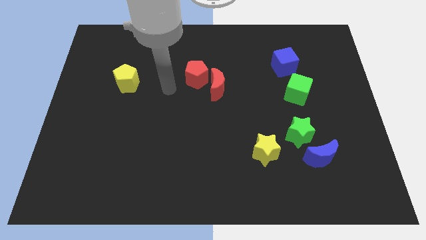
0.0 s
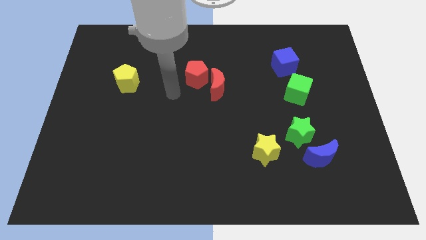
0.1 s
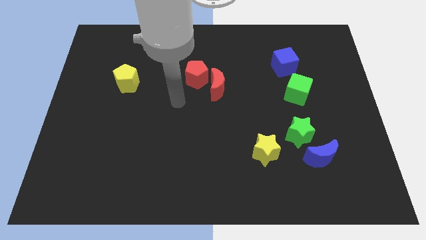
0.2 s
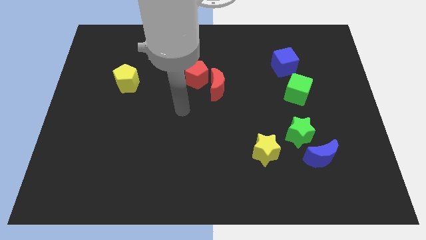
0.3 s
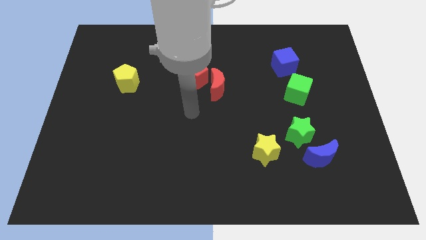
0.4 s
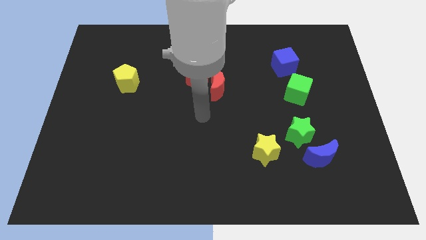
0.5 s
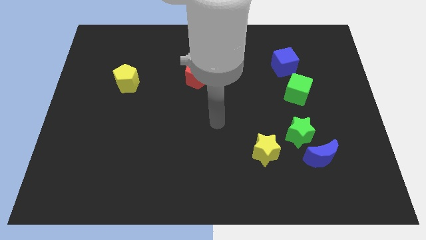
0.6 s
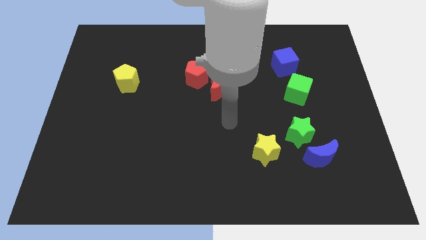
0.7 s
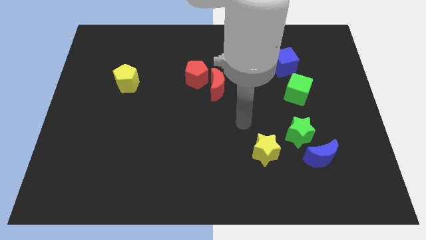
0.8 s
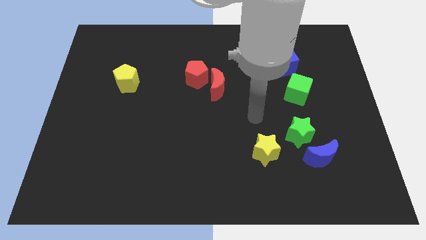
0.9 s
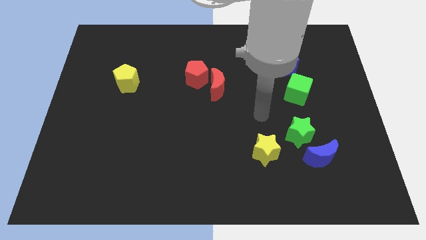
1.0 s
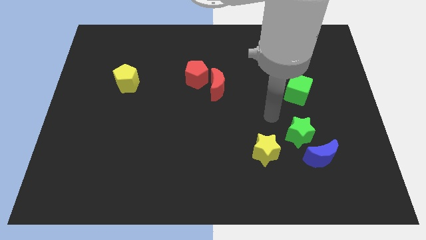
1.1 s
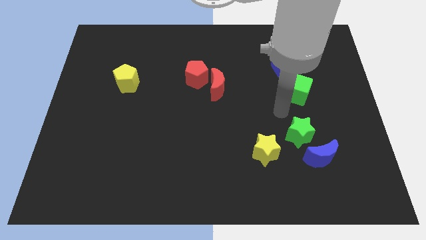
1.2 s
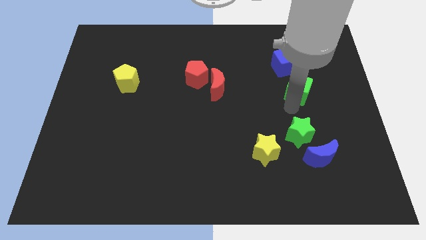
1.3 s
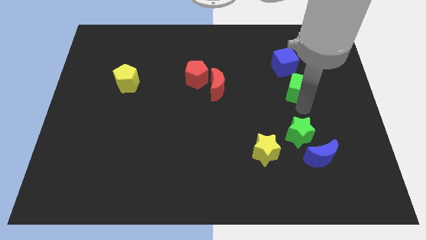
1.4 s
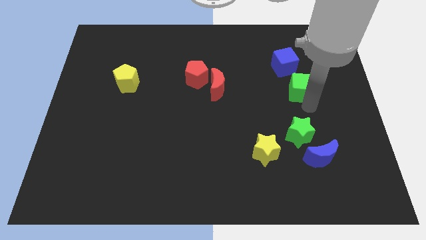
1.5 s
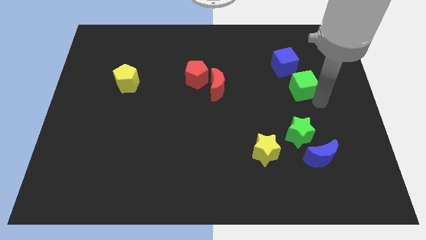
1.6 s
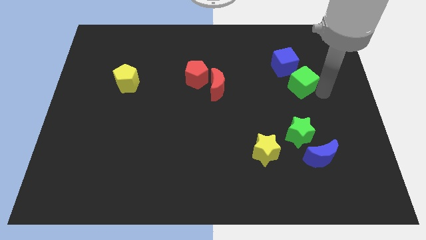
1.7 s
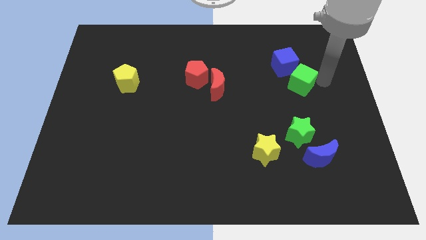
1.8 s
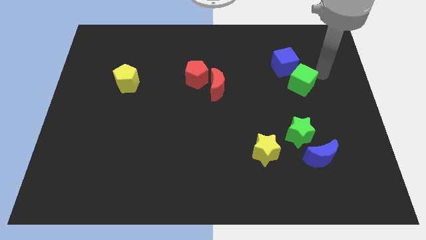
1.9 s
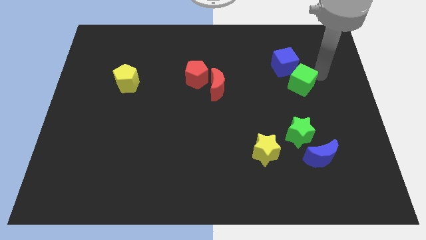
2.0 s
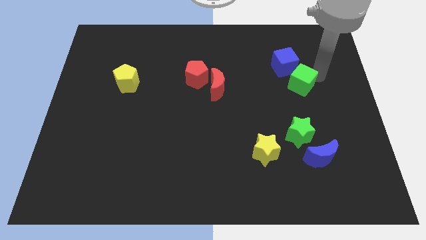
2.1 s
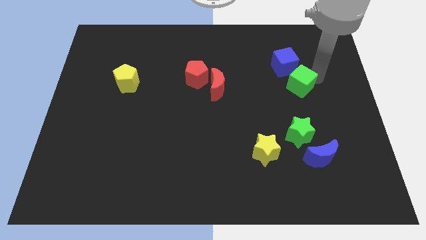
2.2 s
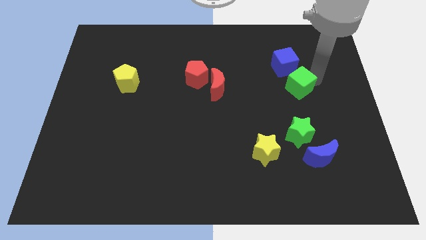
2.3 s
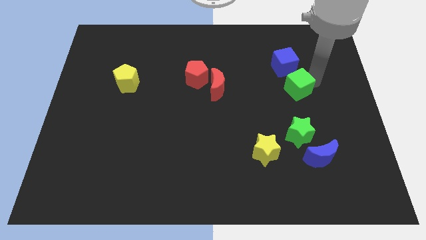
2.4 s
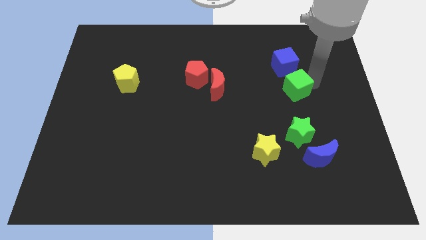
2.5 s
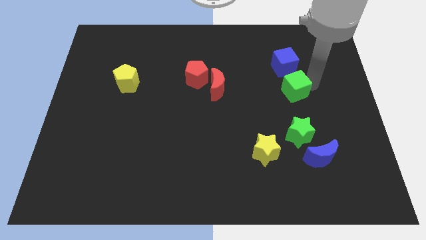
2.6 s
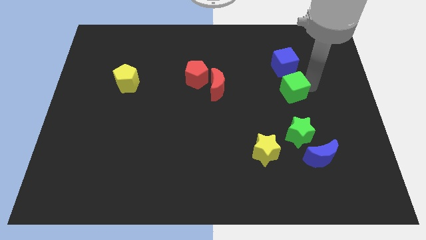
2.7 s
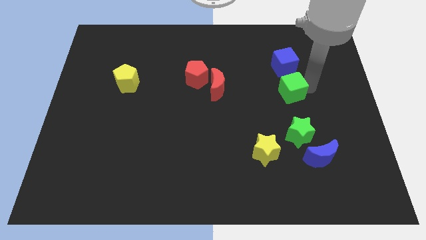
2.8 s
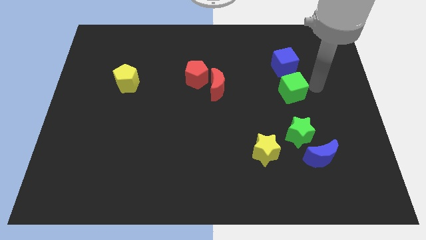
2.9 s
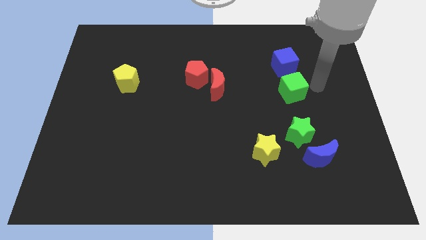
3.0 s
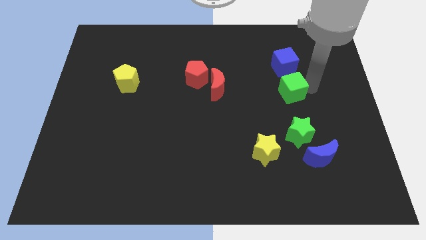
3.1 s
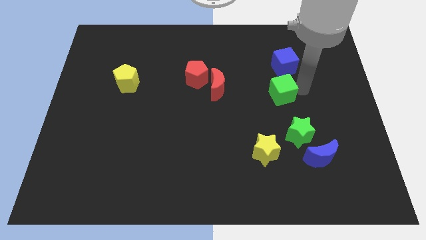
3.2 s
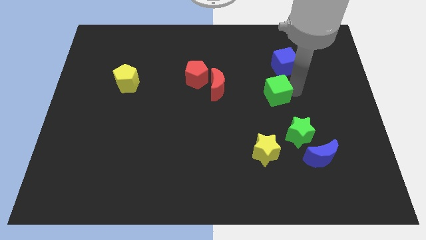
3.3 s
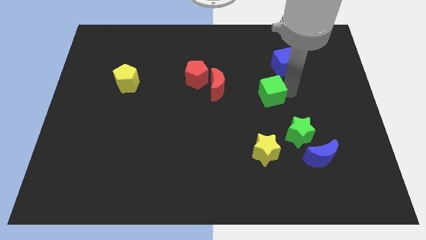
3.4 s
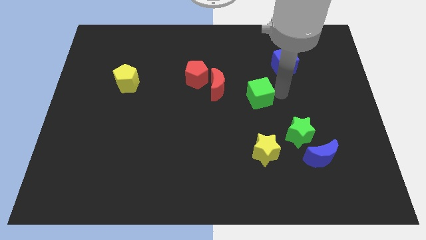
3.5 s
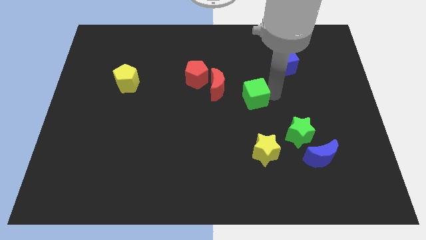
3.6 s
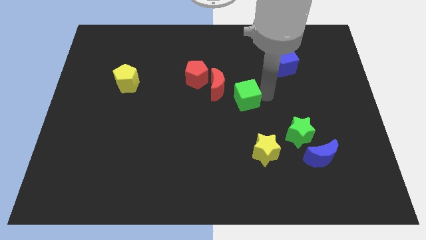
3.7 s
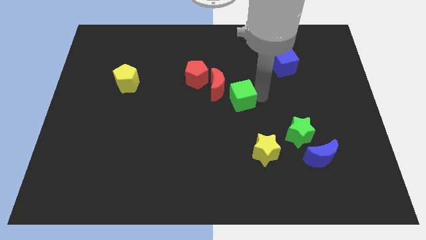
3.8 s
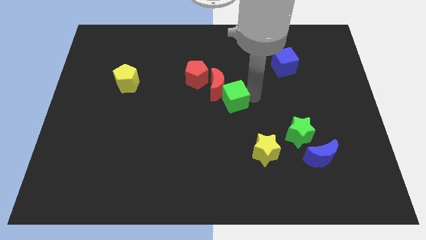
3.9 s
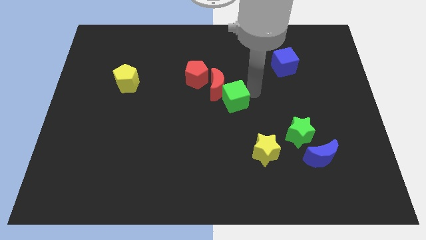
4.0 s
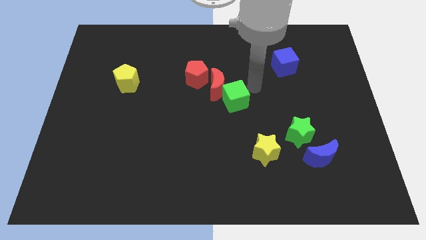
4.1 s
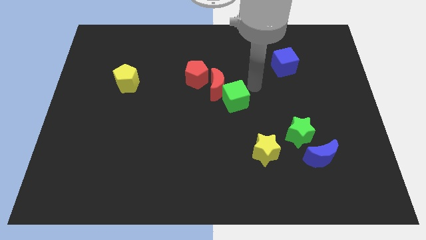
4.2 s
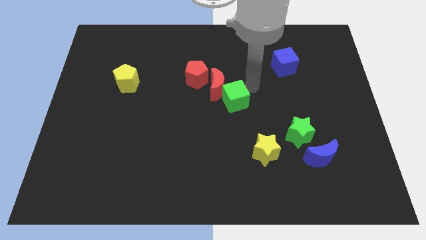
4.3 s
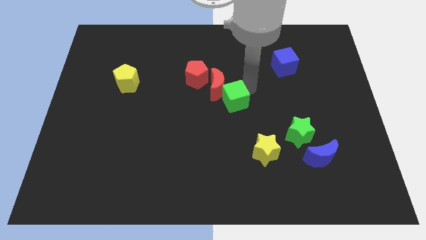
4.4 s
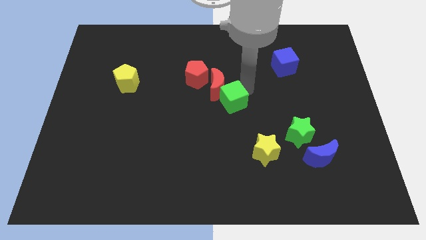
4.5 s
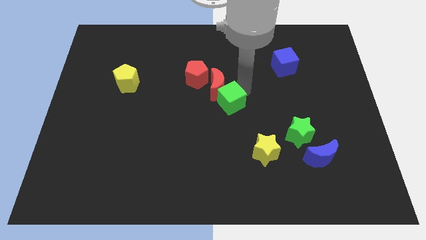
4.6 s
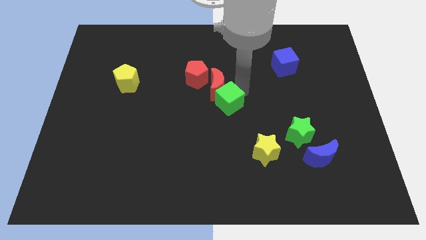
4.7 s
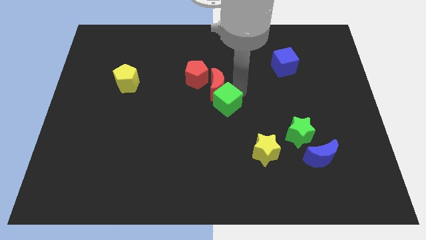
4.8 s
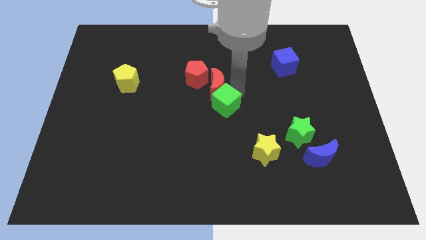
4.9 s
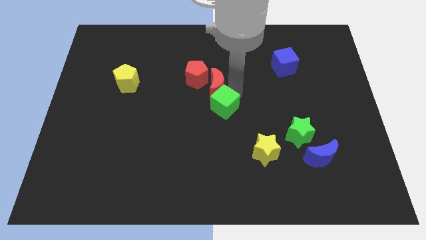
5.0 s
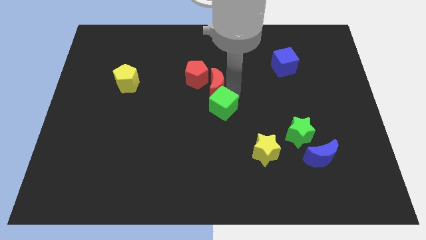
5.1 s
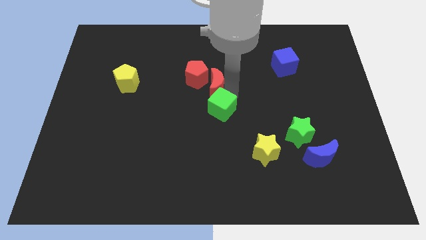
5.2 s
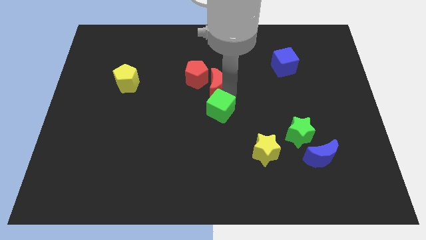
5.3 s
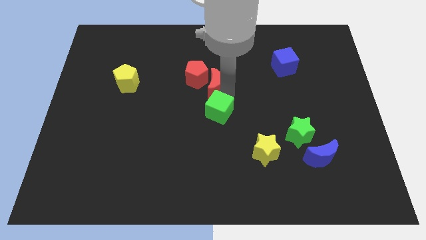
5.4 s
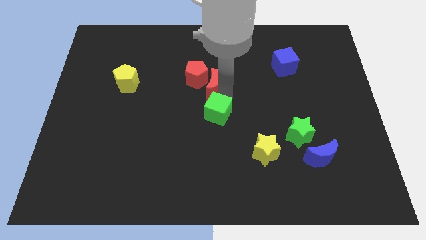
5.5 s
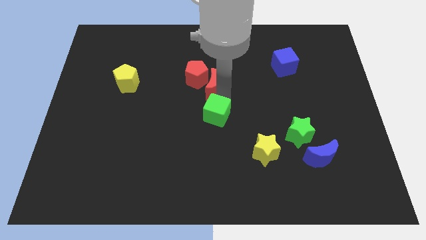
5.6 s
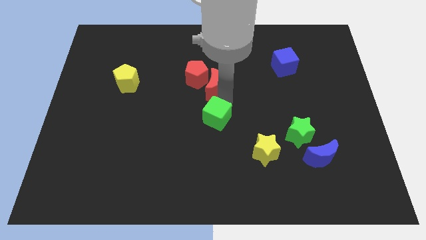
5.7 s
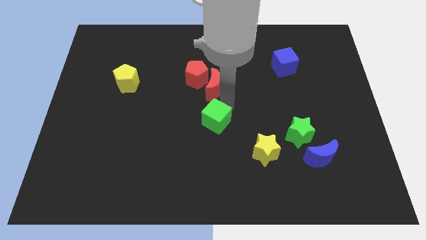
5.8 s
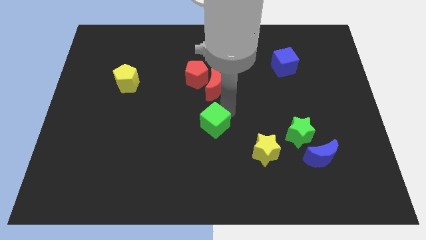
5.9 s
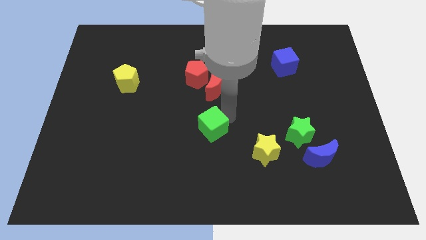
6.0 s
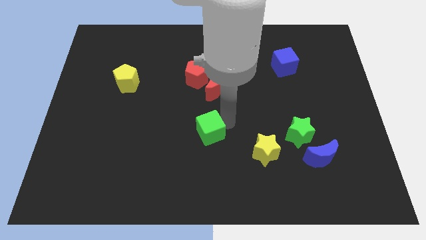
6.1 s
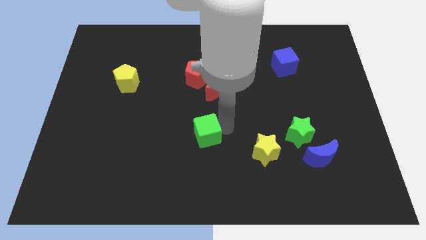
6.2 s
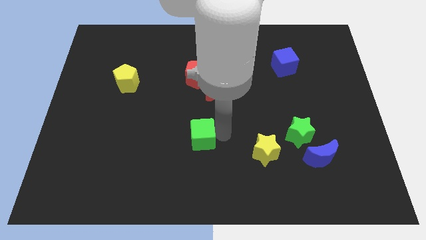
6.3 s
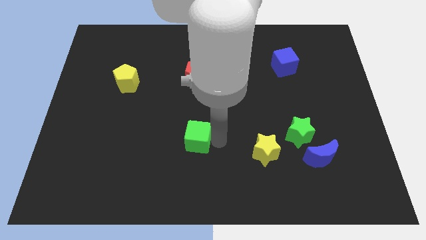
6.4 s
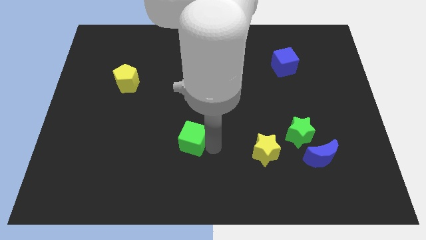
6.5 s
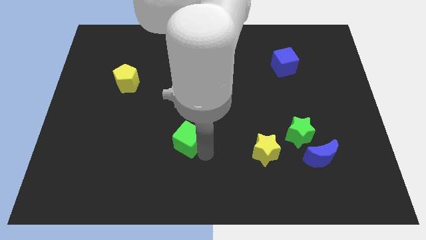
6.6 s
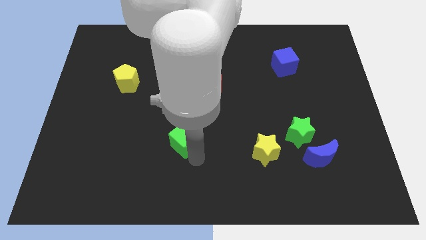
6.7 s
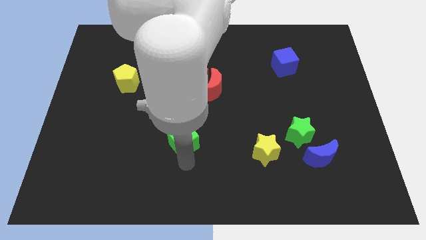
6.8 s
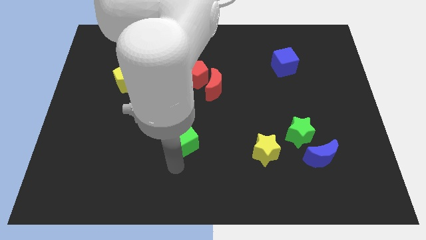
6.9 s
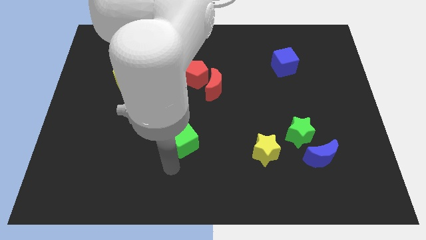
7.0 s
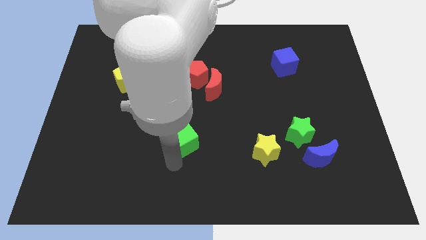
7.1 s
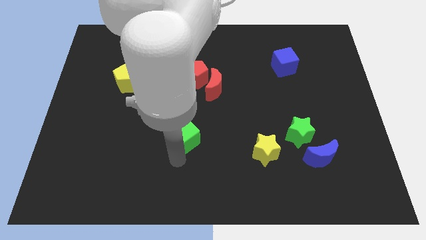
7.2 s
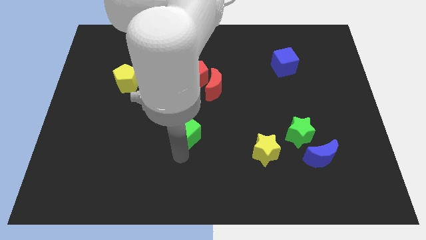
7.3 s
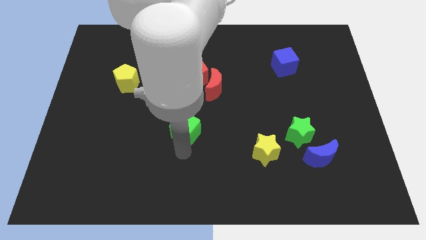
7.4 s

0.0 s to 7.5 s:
slide the green cube left

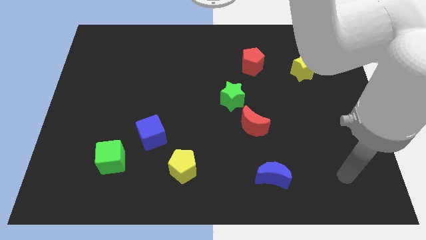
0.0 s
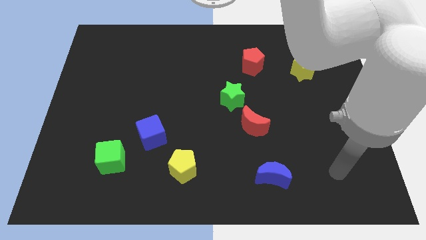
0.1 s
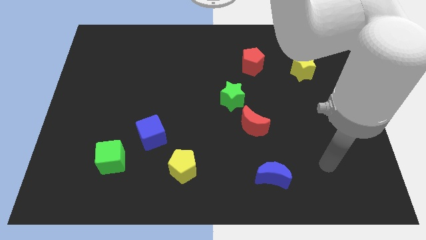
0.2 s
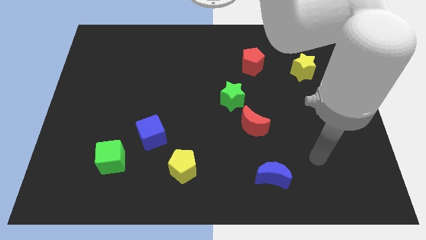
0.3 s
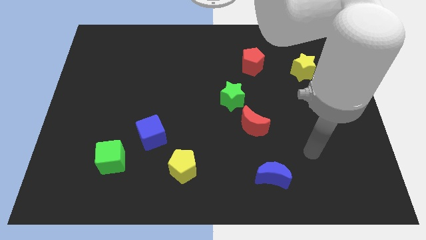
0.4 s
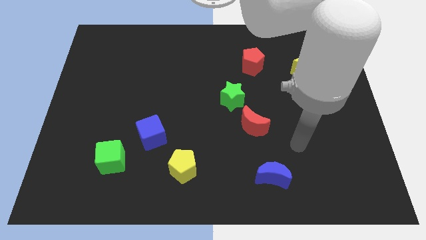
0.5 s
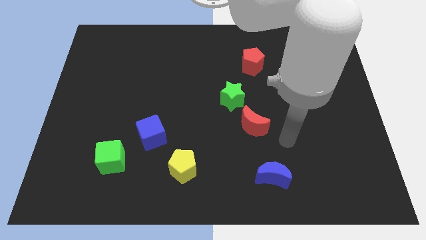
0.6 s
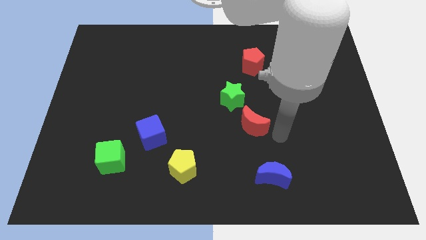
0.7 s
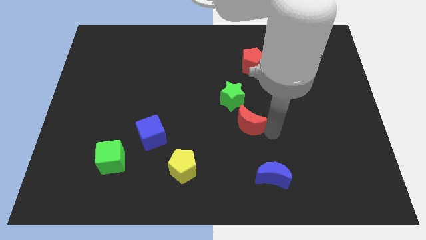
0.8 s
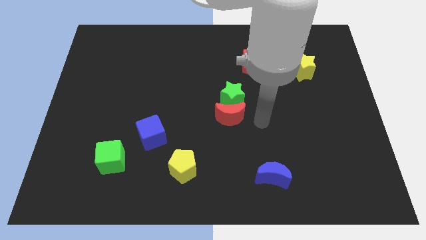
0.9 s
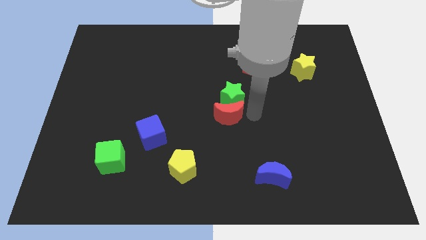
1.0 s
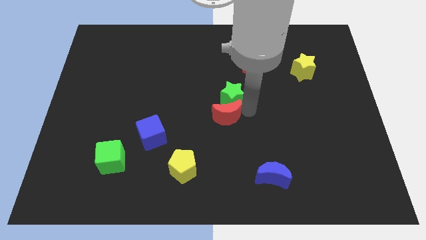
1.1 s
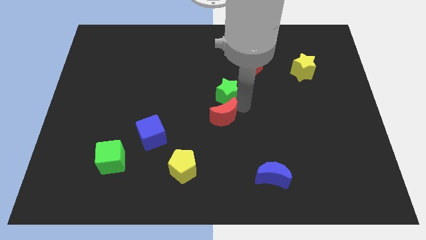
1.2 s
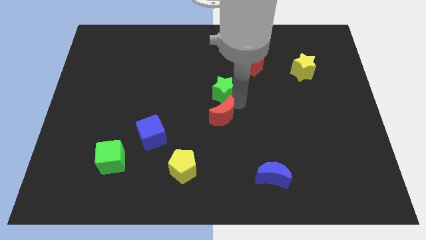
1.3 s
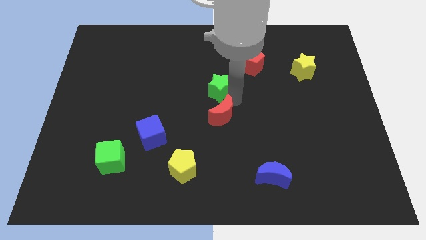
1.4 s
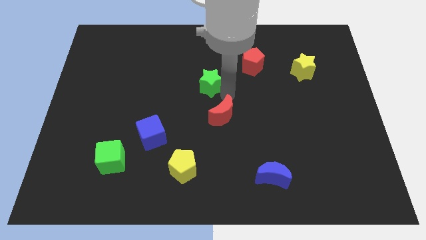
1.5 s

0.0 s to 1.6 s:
slightly push the green star upwards and to the left diagonally
